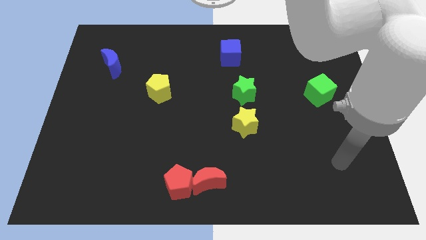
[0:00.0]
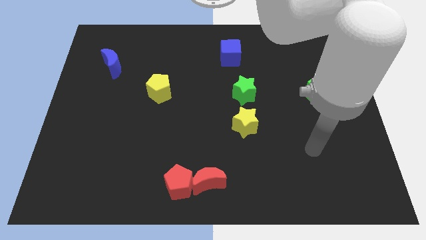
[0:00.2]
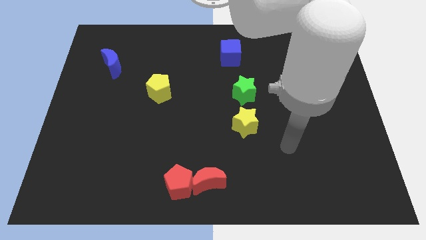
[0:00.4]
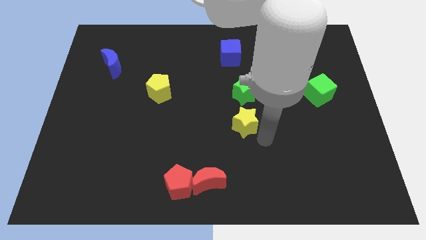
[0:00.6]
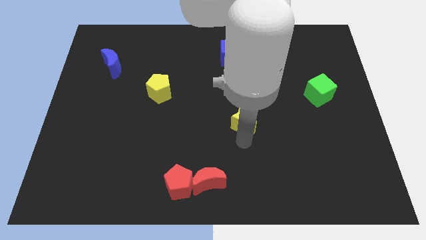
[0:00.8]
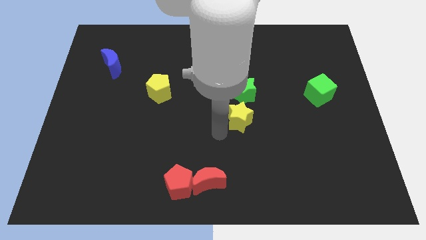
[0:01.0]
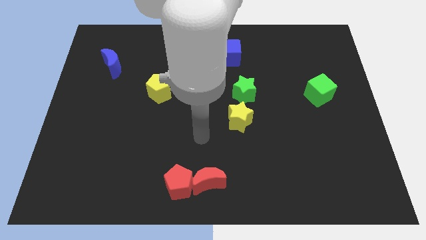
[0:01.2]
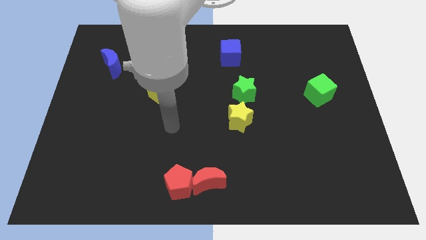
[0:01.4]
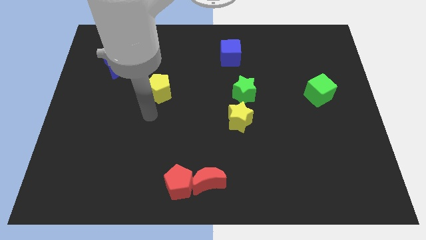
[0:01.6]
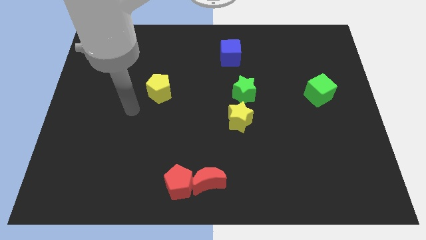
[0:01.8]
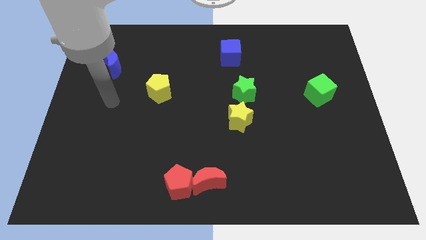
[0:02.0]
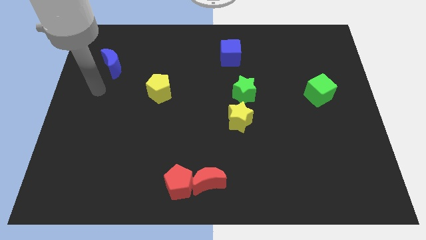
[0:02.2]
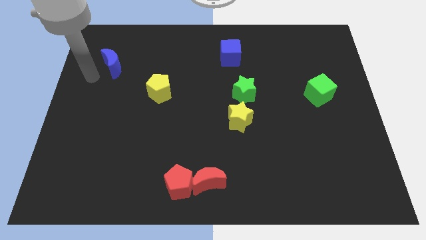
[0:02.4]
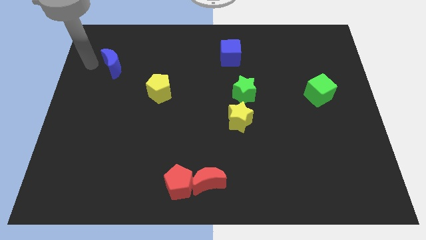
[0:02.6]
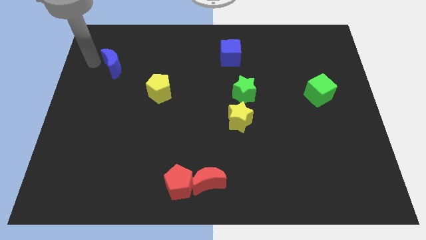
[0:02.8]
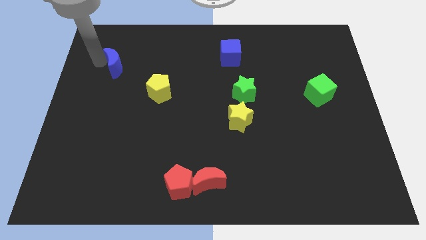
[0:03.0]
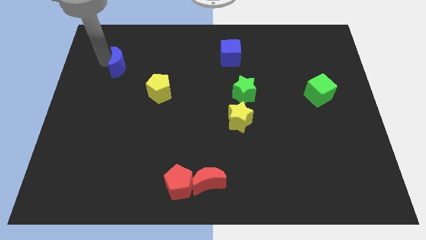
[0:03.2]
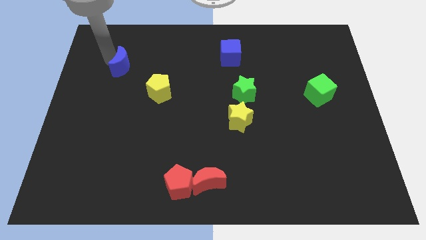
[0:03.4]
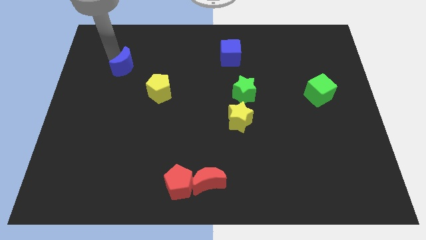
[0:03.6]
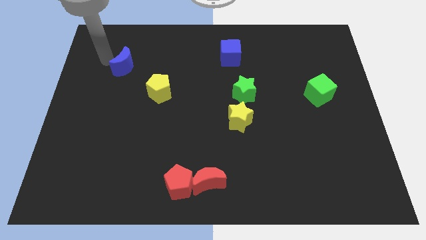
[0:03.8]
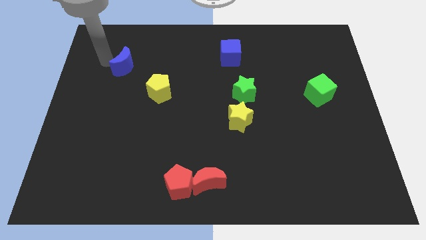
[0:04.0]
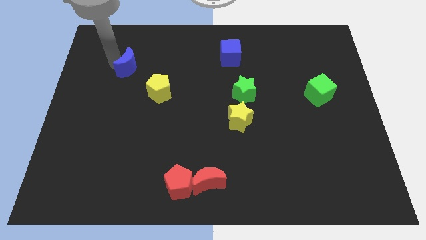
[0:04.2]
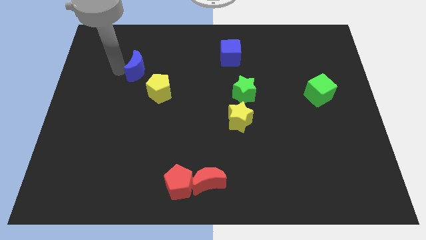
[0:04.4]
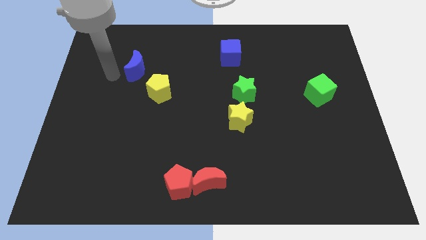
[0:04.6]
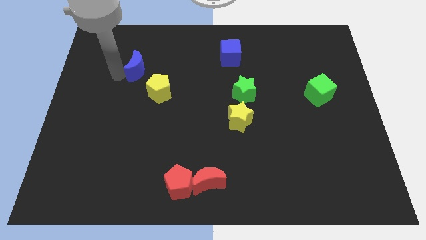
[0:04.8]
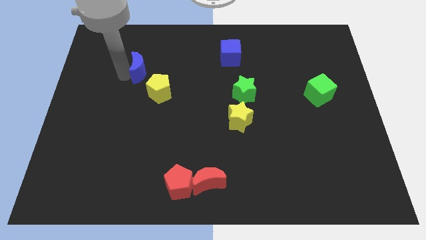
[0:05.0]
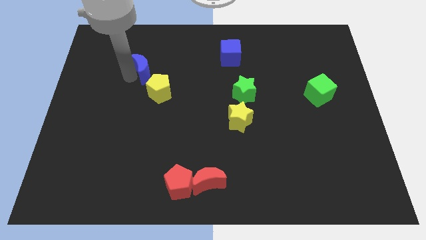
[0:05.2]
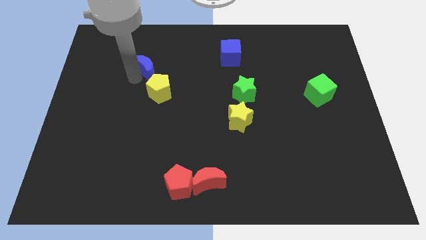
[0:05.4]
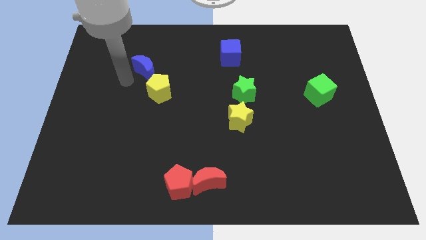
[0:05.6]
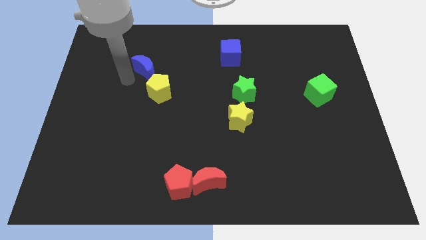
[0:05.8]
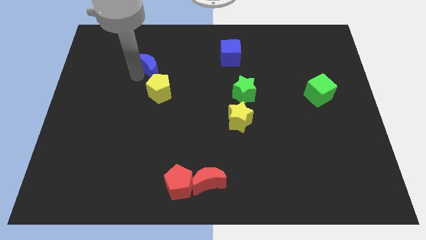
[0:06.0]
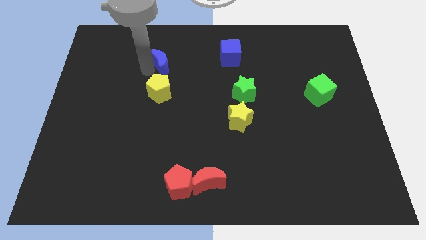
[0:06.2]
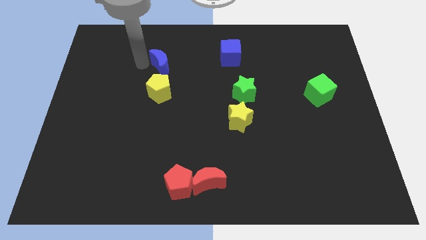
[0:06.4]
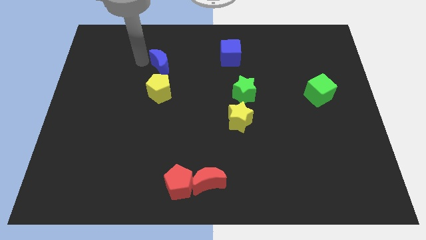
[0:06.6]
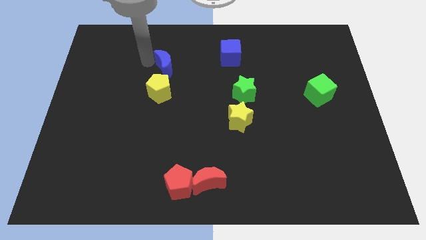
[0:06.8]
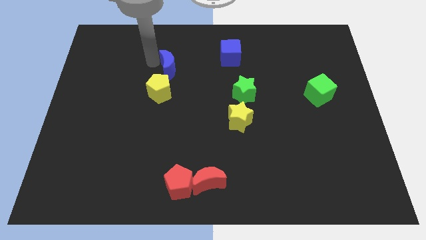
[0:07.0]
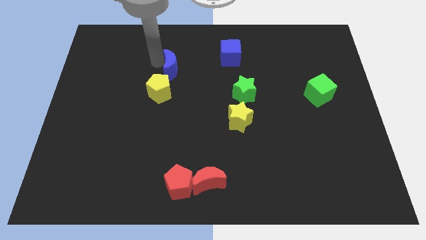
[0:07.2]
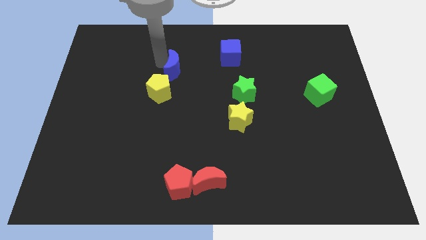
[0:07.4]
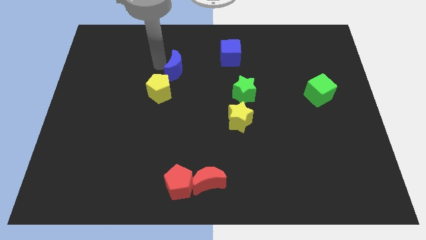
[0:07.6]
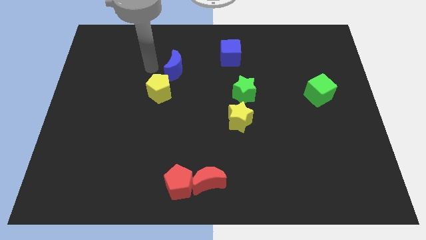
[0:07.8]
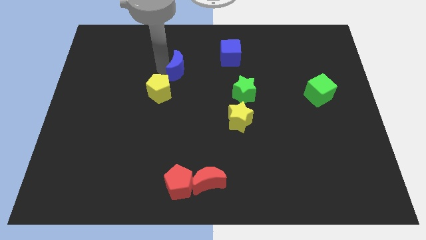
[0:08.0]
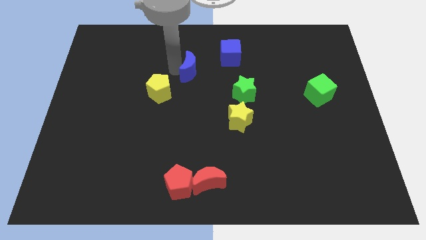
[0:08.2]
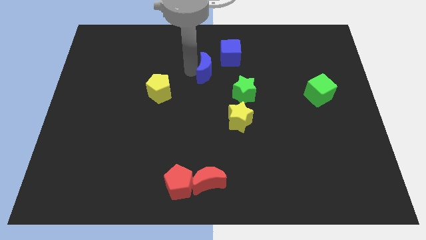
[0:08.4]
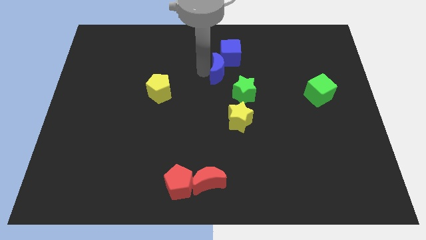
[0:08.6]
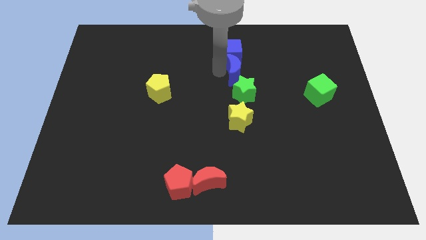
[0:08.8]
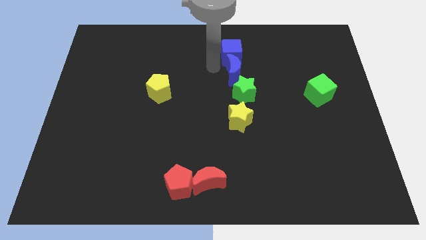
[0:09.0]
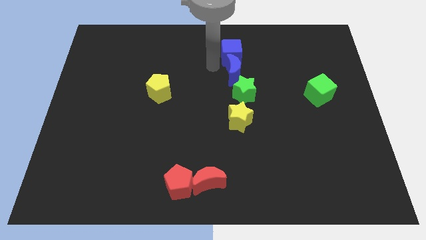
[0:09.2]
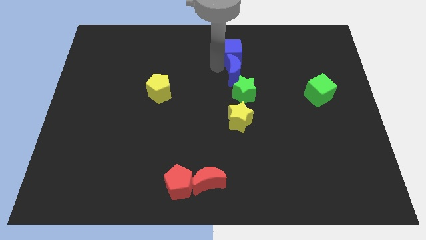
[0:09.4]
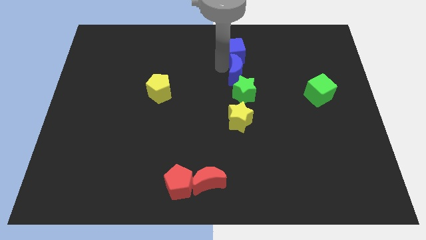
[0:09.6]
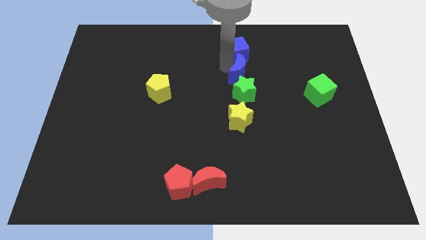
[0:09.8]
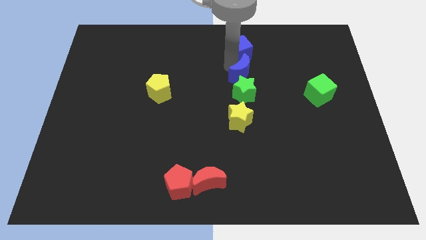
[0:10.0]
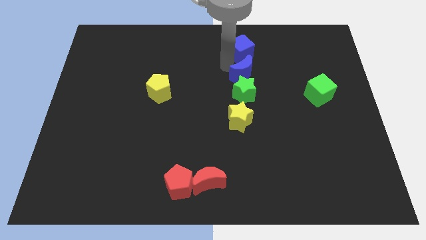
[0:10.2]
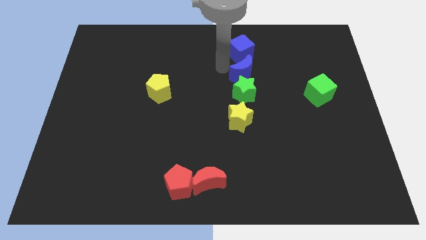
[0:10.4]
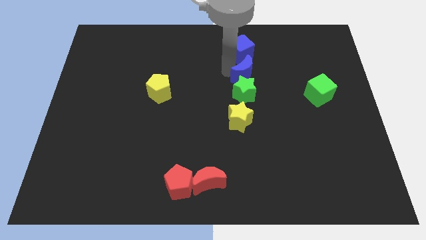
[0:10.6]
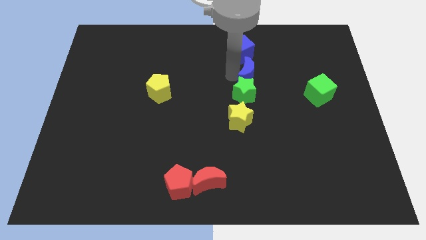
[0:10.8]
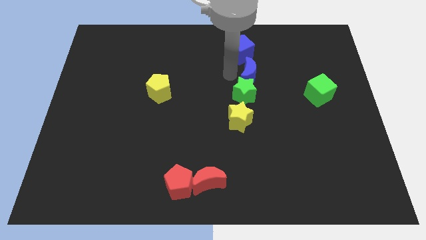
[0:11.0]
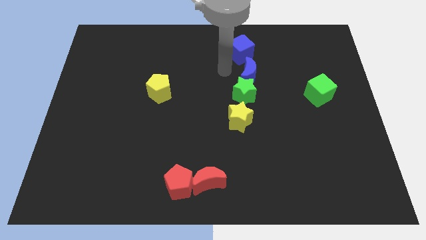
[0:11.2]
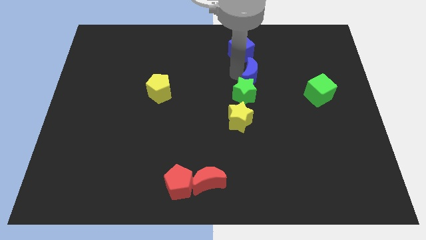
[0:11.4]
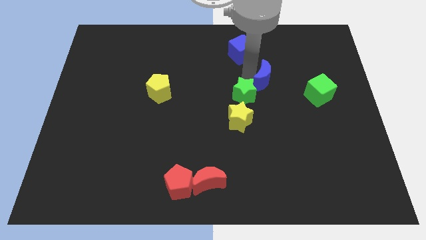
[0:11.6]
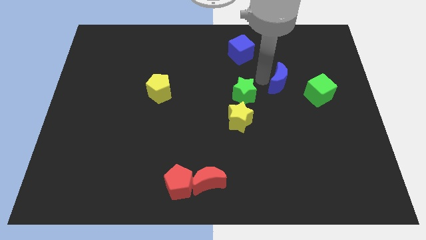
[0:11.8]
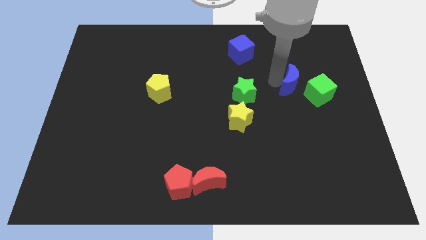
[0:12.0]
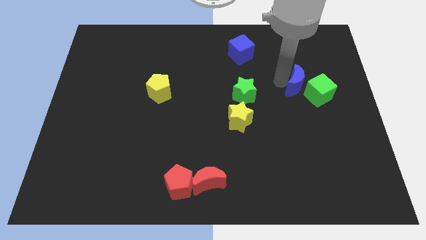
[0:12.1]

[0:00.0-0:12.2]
put the blue moon to the green cube
